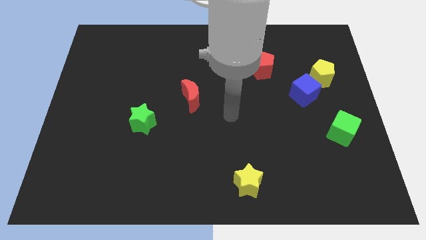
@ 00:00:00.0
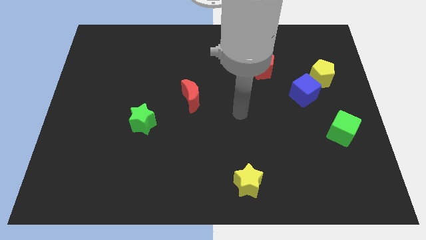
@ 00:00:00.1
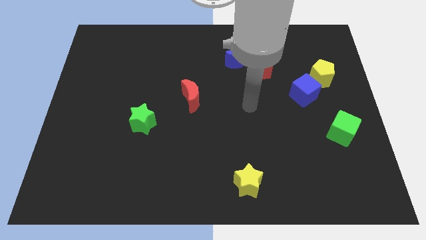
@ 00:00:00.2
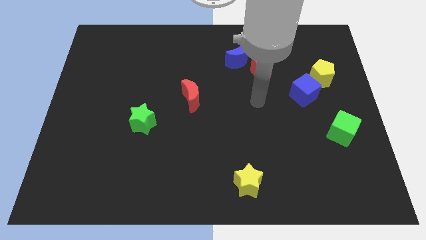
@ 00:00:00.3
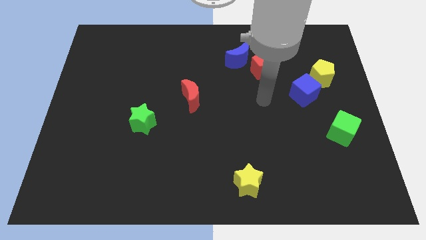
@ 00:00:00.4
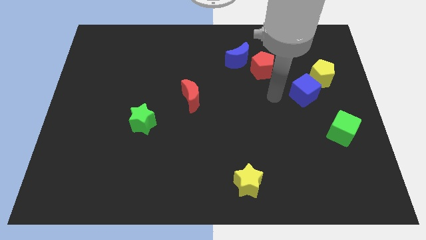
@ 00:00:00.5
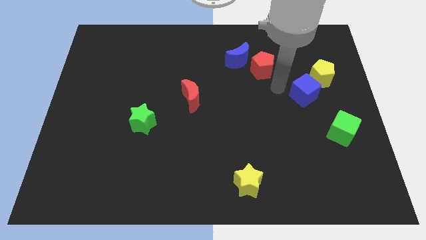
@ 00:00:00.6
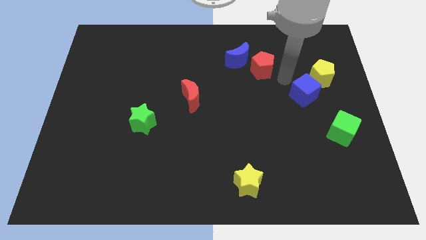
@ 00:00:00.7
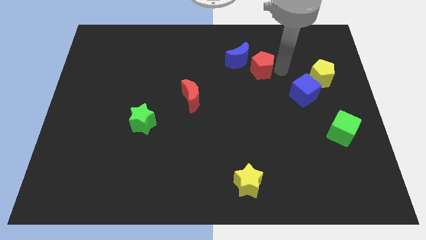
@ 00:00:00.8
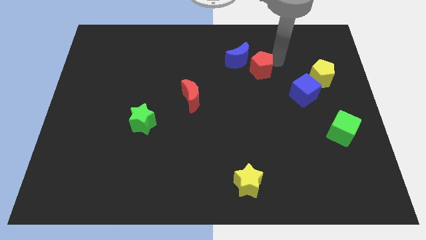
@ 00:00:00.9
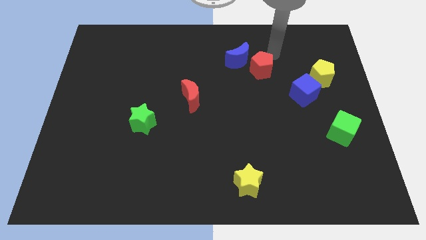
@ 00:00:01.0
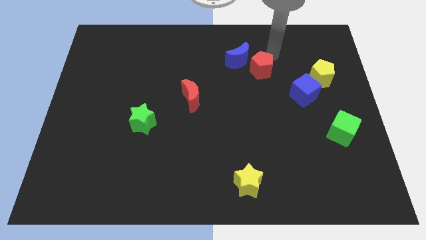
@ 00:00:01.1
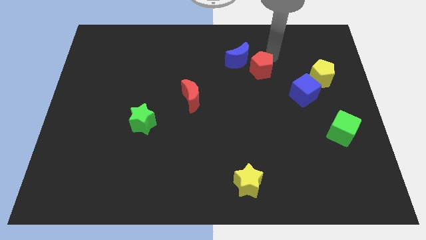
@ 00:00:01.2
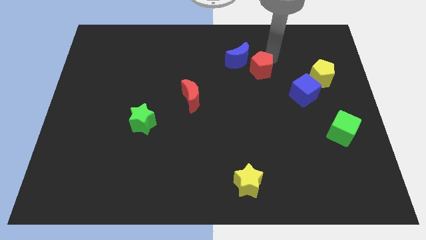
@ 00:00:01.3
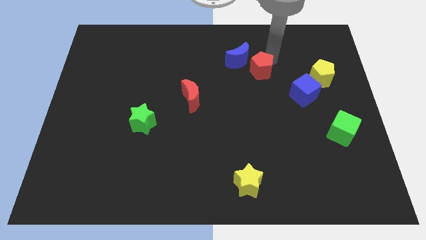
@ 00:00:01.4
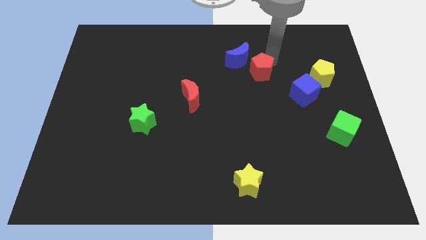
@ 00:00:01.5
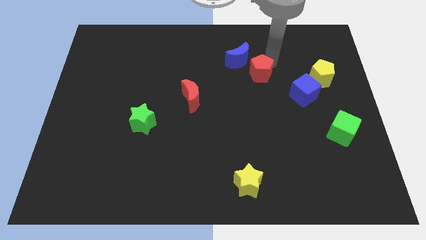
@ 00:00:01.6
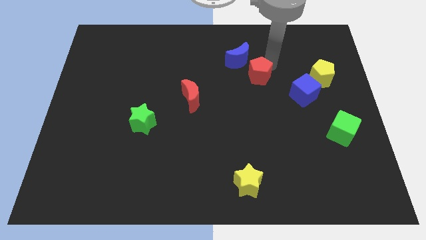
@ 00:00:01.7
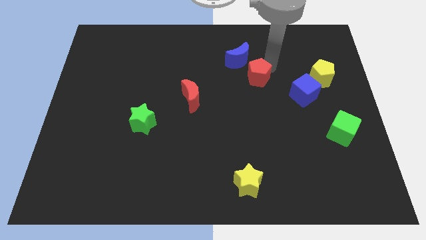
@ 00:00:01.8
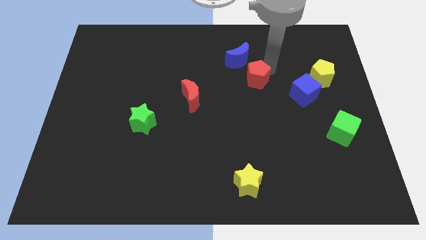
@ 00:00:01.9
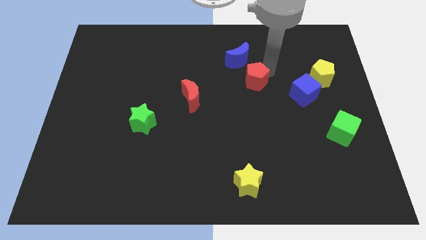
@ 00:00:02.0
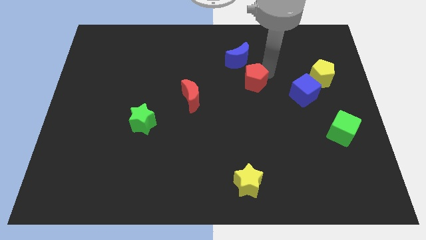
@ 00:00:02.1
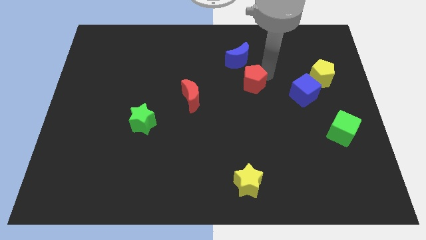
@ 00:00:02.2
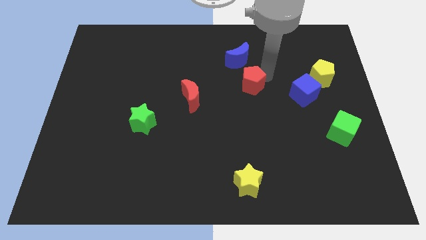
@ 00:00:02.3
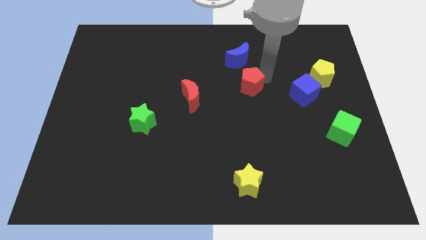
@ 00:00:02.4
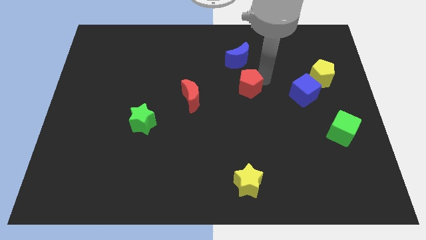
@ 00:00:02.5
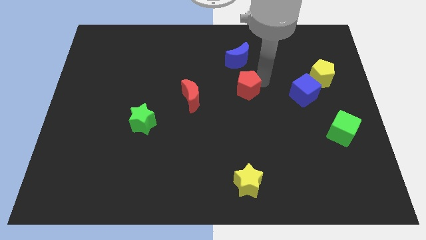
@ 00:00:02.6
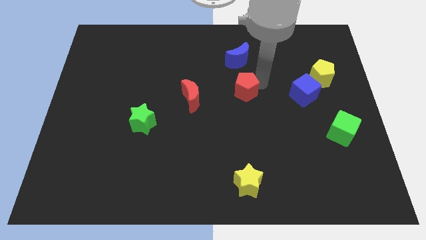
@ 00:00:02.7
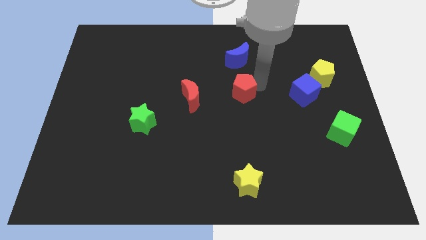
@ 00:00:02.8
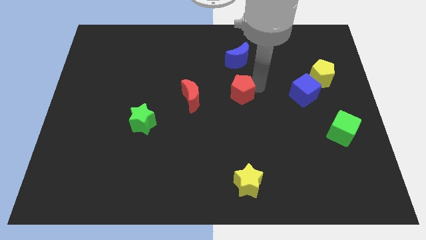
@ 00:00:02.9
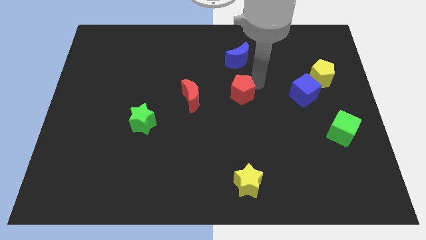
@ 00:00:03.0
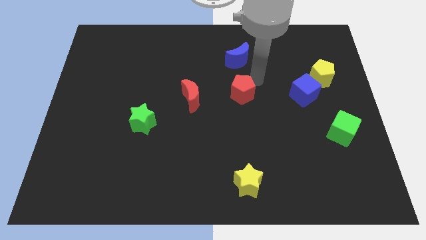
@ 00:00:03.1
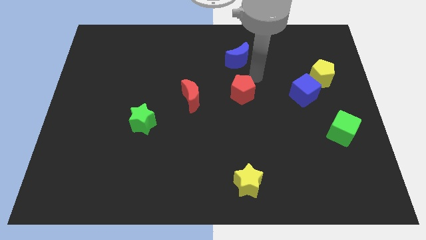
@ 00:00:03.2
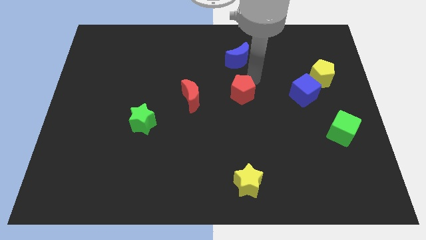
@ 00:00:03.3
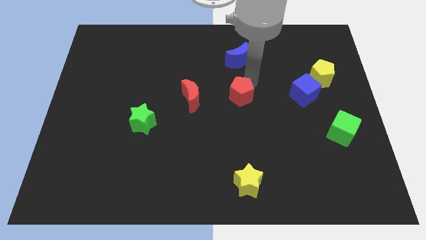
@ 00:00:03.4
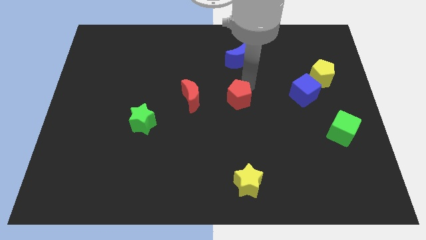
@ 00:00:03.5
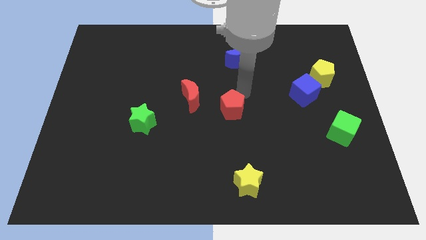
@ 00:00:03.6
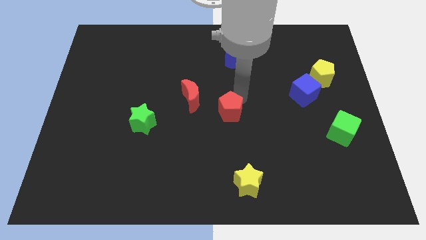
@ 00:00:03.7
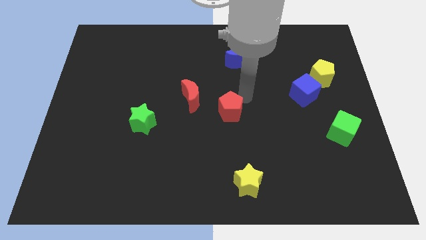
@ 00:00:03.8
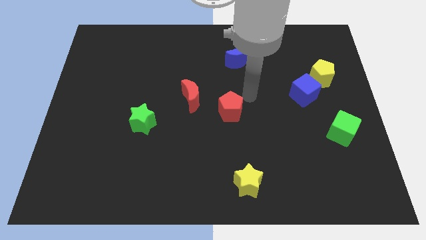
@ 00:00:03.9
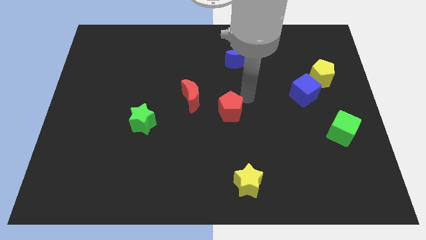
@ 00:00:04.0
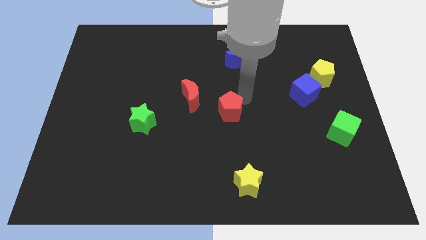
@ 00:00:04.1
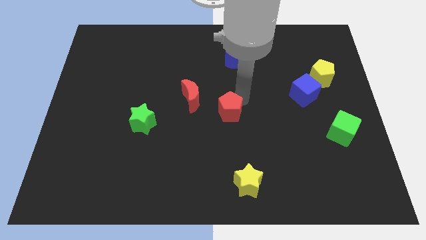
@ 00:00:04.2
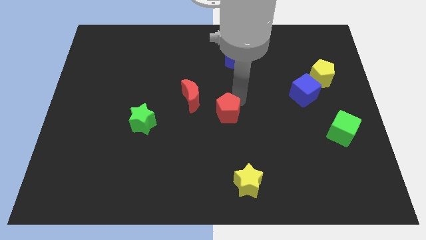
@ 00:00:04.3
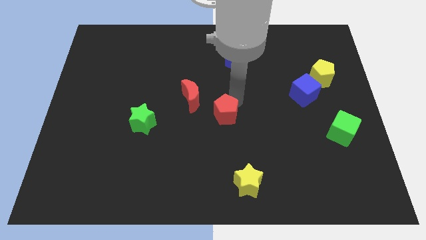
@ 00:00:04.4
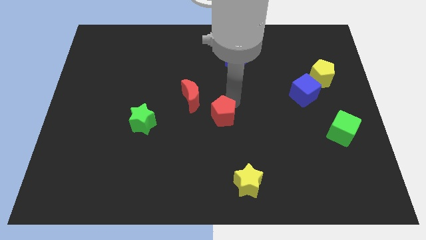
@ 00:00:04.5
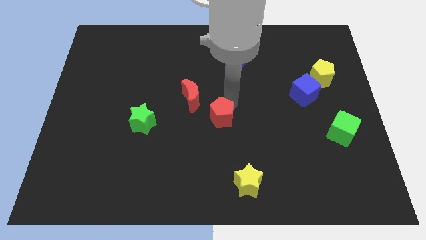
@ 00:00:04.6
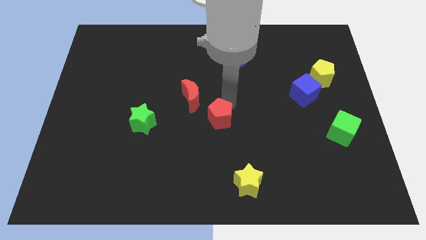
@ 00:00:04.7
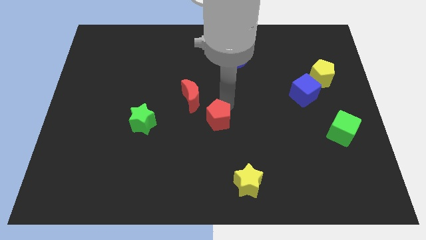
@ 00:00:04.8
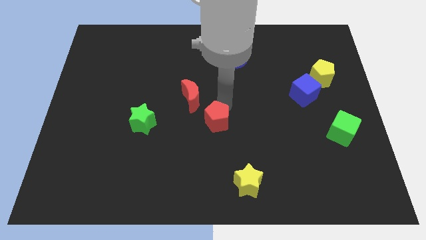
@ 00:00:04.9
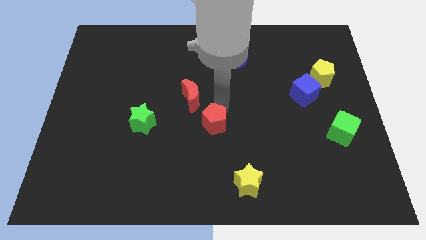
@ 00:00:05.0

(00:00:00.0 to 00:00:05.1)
slide the red pentagon down and then to the left

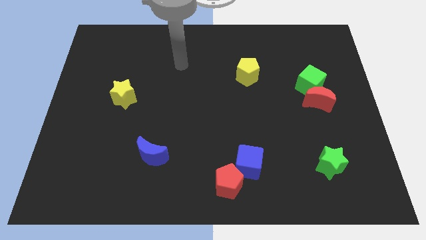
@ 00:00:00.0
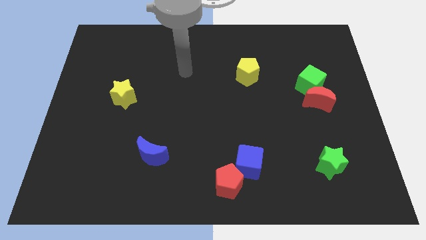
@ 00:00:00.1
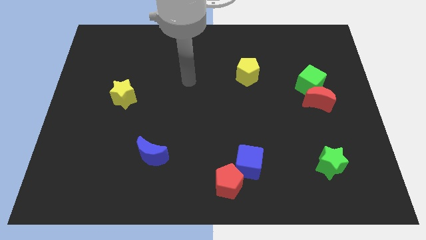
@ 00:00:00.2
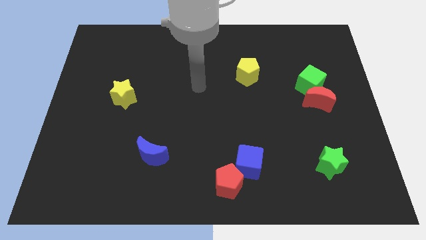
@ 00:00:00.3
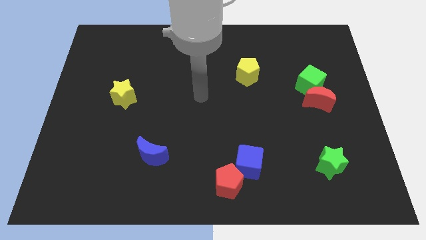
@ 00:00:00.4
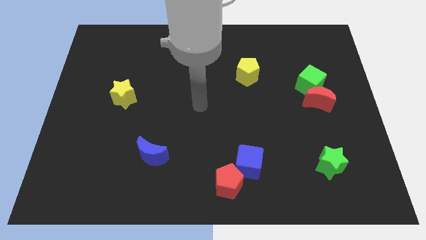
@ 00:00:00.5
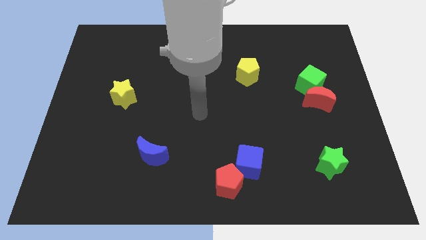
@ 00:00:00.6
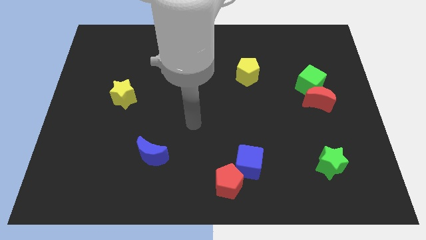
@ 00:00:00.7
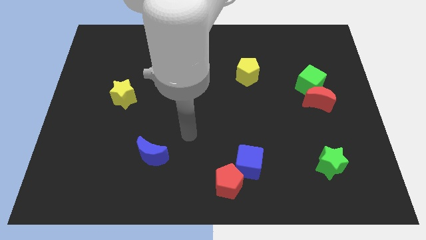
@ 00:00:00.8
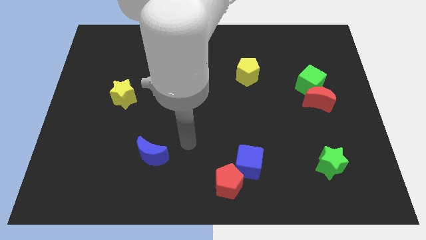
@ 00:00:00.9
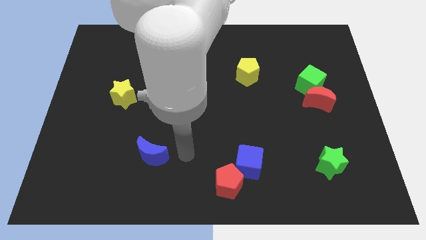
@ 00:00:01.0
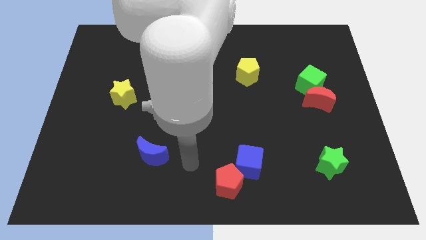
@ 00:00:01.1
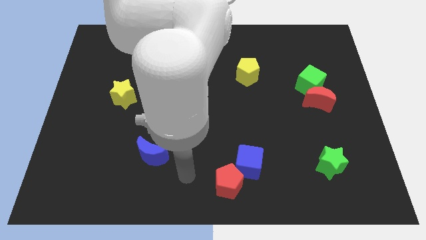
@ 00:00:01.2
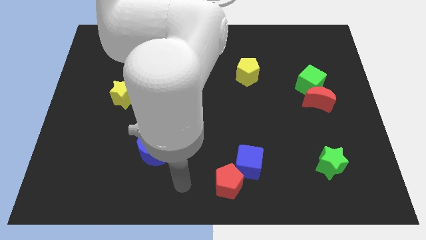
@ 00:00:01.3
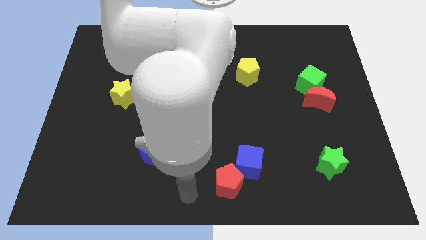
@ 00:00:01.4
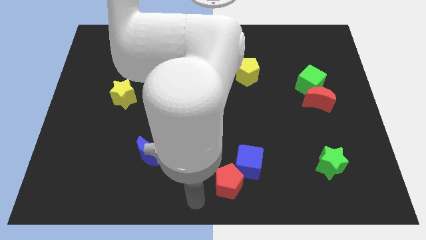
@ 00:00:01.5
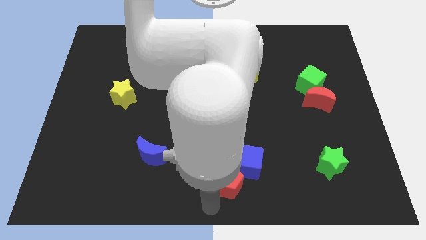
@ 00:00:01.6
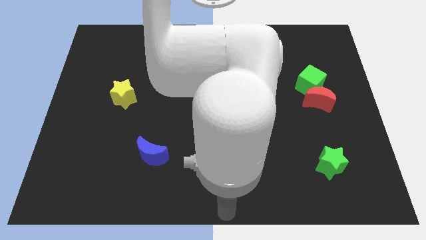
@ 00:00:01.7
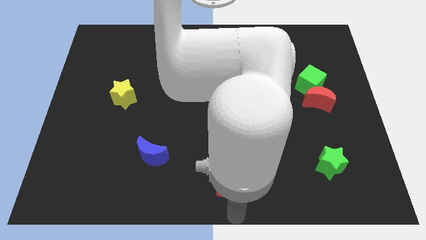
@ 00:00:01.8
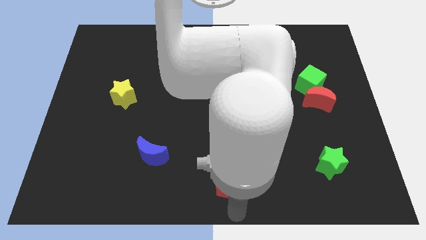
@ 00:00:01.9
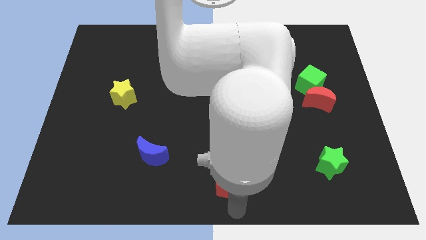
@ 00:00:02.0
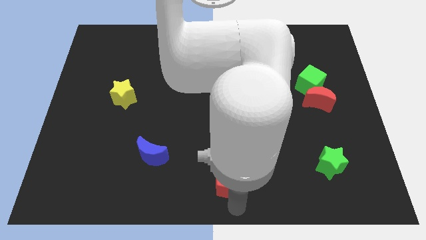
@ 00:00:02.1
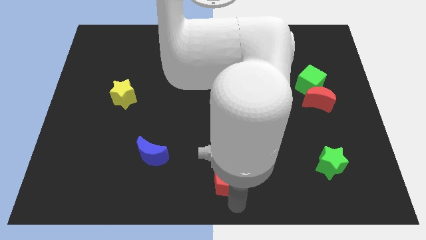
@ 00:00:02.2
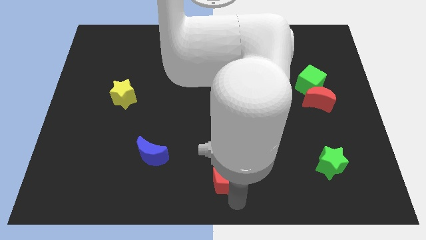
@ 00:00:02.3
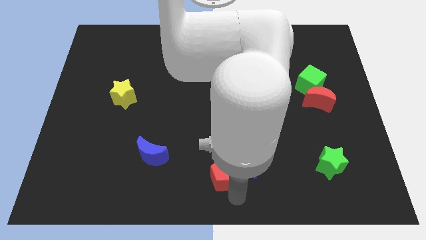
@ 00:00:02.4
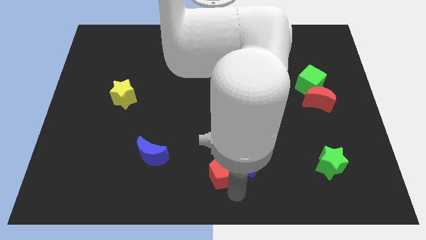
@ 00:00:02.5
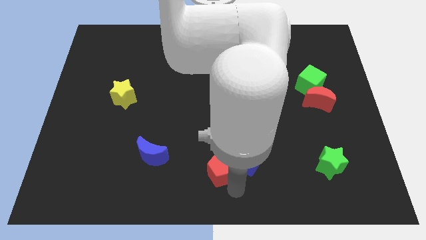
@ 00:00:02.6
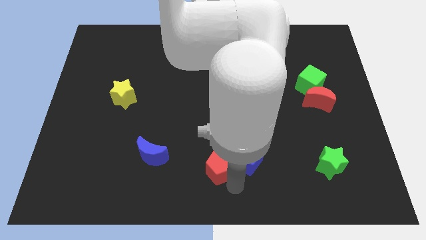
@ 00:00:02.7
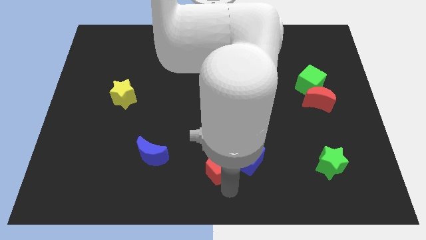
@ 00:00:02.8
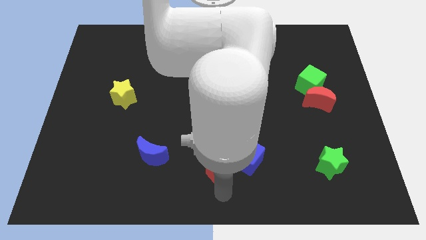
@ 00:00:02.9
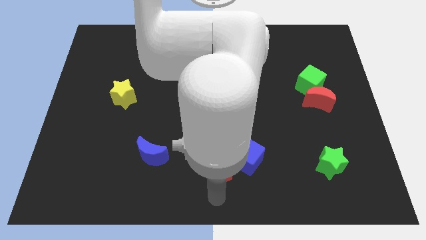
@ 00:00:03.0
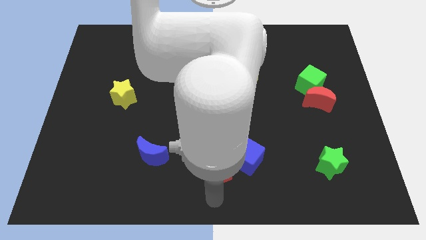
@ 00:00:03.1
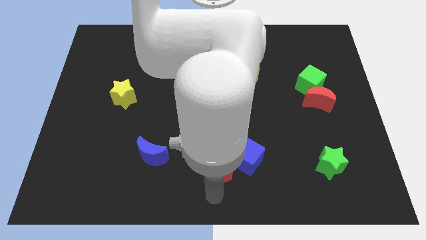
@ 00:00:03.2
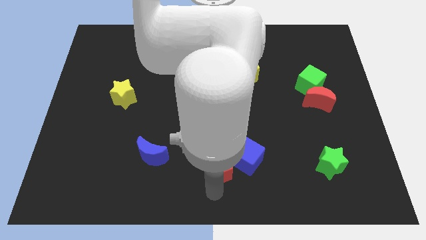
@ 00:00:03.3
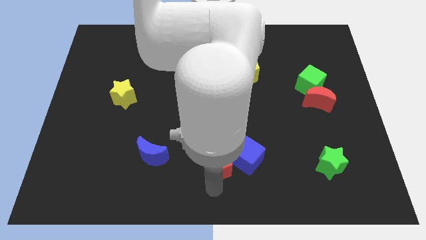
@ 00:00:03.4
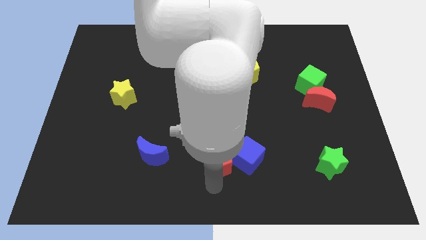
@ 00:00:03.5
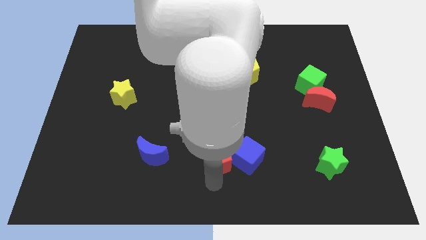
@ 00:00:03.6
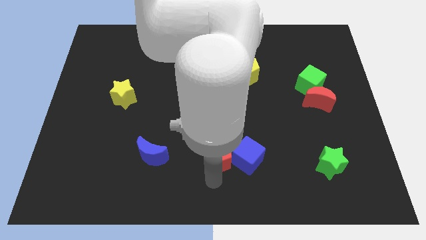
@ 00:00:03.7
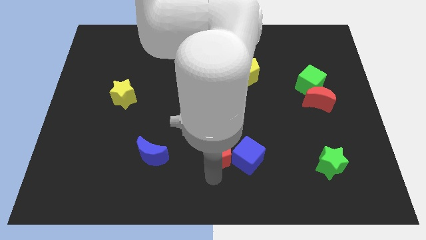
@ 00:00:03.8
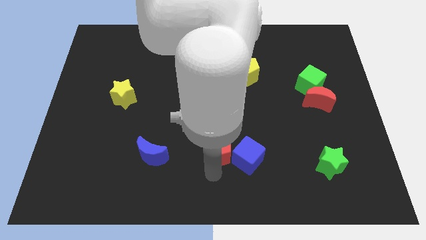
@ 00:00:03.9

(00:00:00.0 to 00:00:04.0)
slightly push the red pentagon upwards
